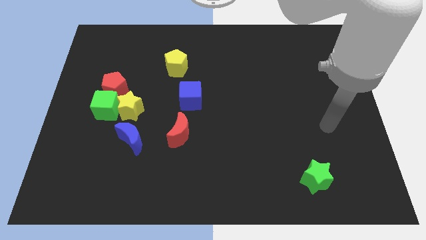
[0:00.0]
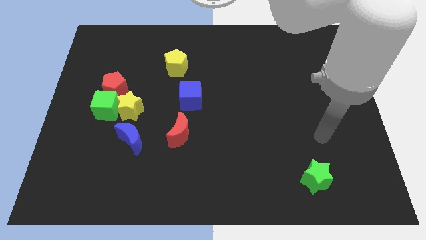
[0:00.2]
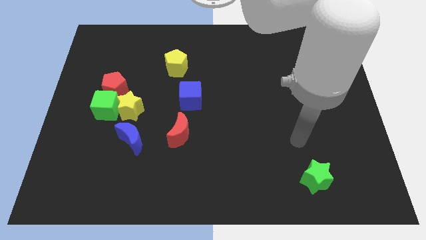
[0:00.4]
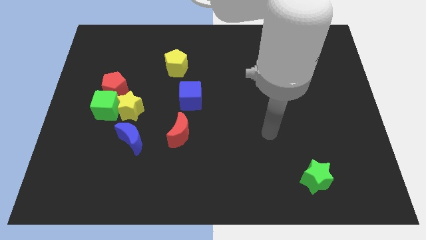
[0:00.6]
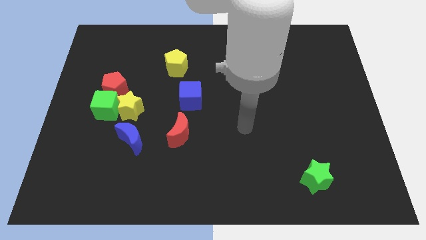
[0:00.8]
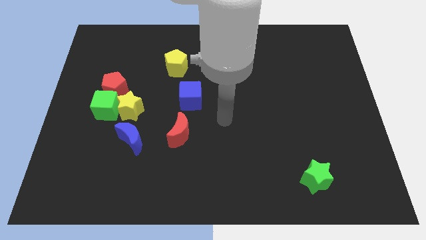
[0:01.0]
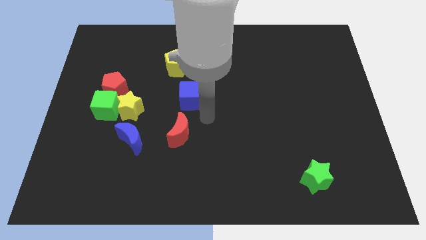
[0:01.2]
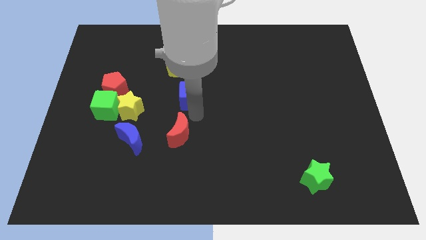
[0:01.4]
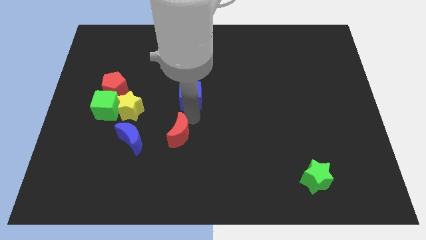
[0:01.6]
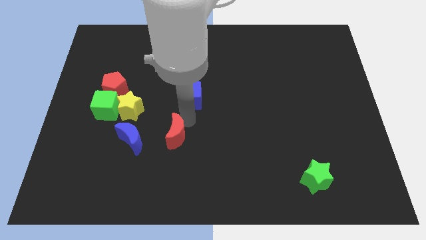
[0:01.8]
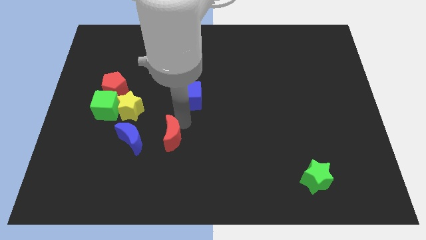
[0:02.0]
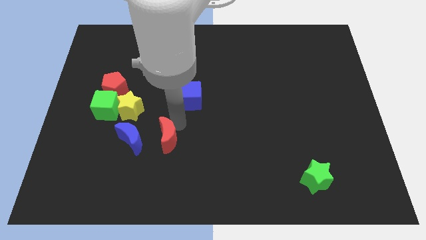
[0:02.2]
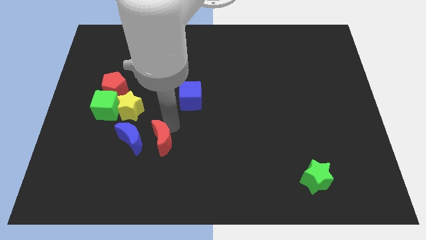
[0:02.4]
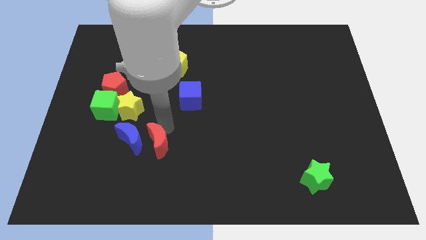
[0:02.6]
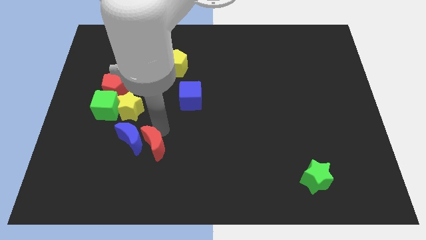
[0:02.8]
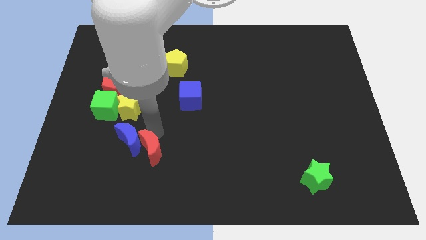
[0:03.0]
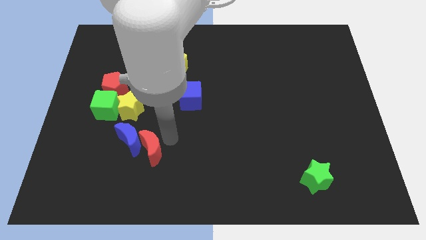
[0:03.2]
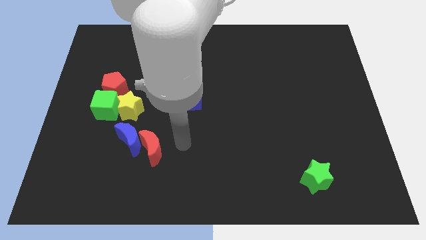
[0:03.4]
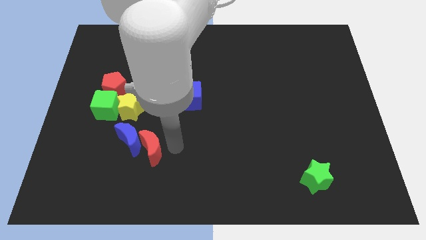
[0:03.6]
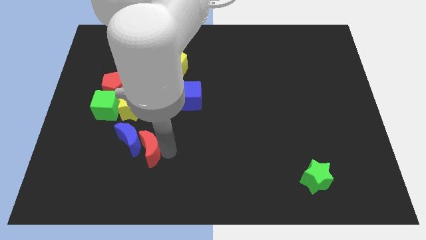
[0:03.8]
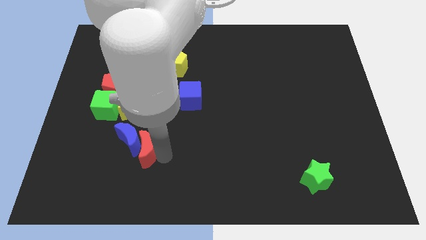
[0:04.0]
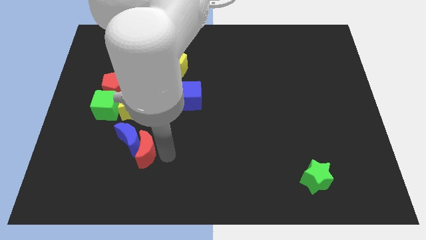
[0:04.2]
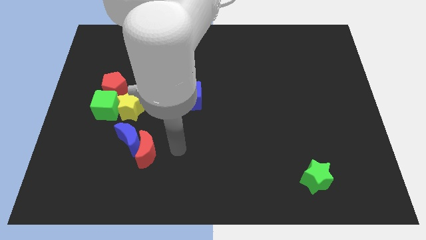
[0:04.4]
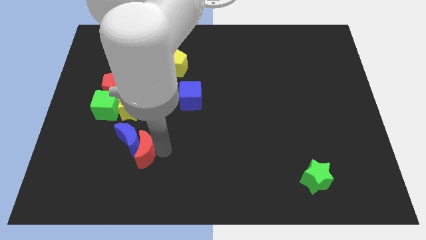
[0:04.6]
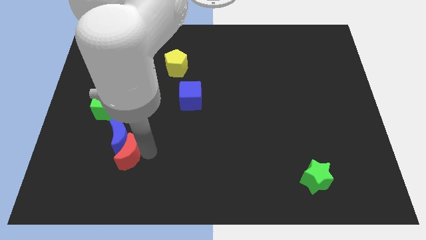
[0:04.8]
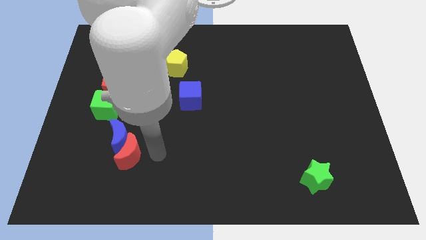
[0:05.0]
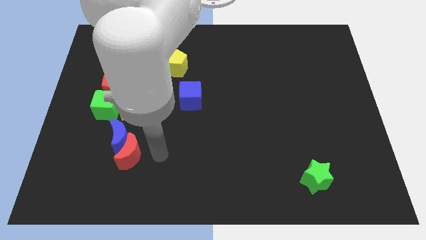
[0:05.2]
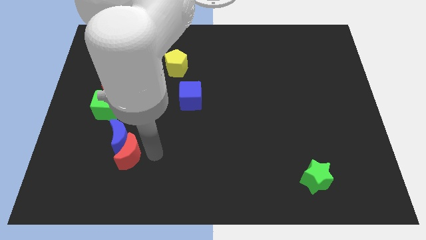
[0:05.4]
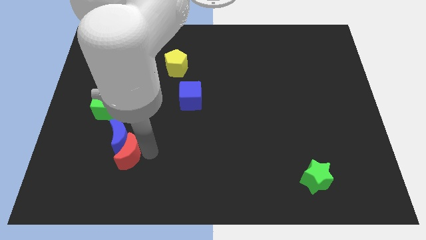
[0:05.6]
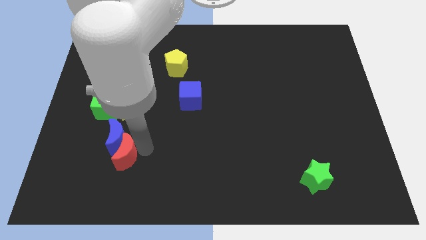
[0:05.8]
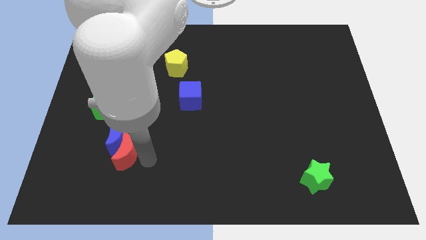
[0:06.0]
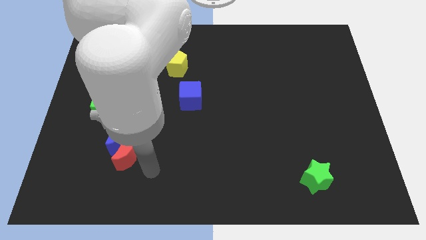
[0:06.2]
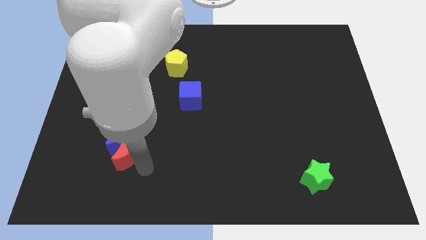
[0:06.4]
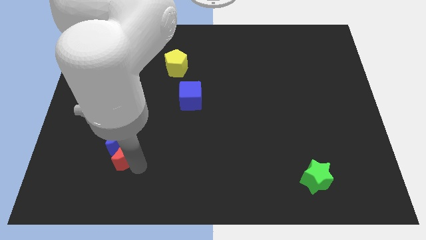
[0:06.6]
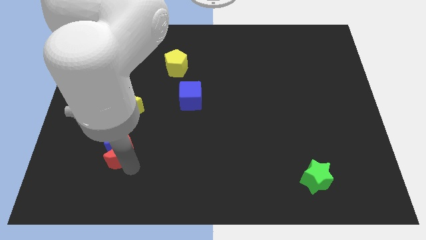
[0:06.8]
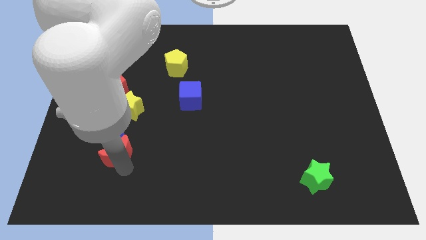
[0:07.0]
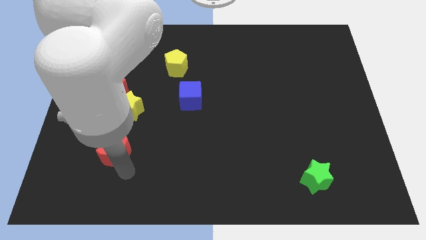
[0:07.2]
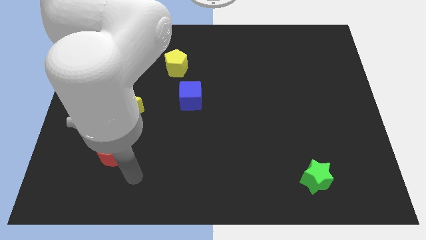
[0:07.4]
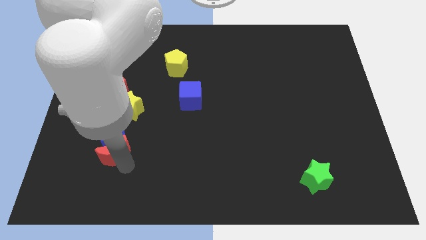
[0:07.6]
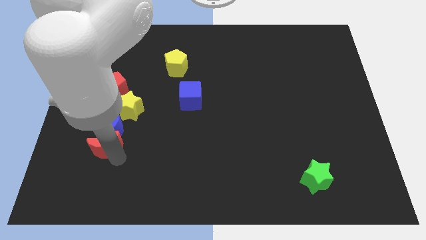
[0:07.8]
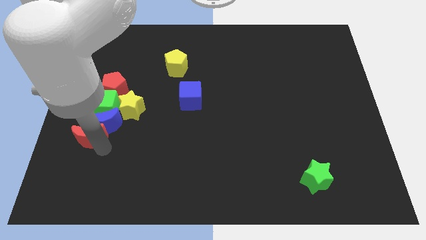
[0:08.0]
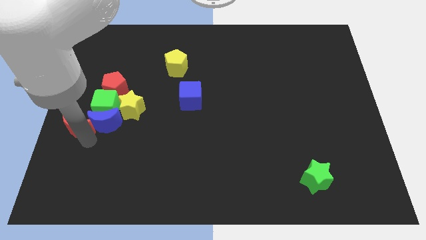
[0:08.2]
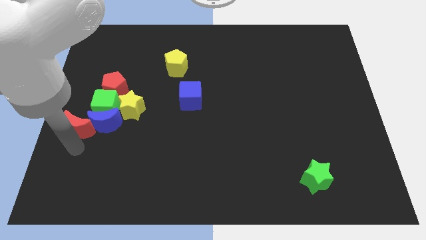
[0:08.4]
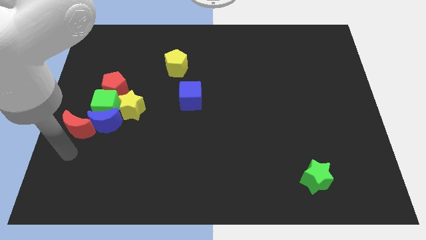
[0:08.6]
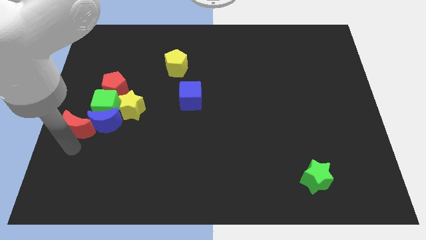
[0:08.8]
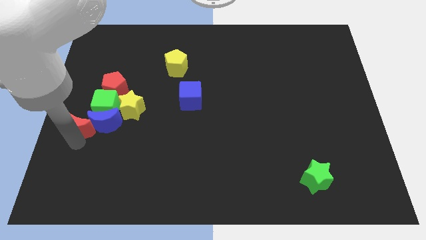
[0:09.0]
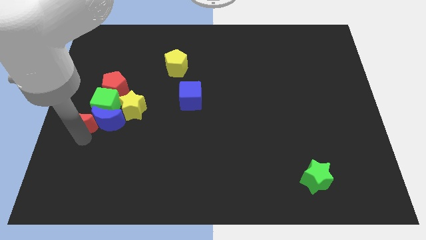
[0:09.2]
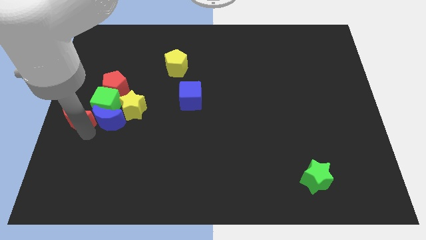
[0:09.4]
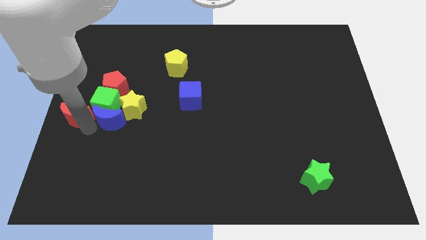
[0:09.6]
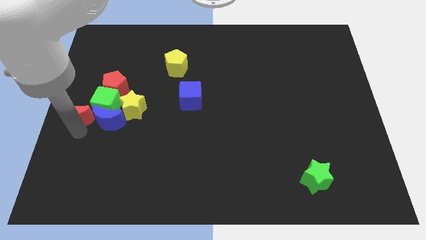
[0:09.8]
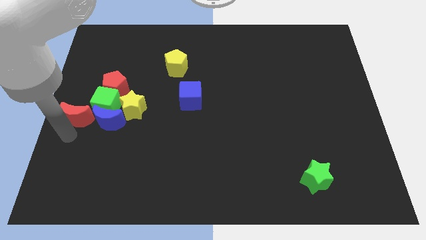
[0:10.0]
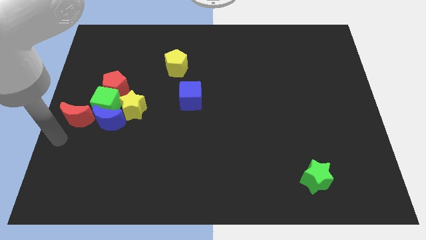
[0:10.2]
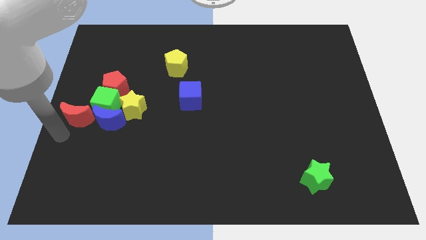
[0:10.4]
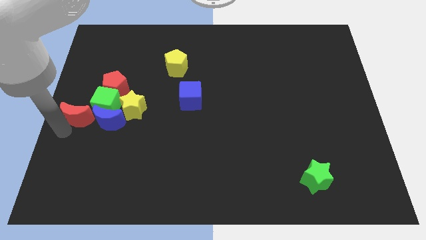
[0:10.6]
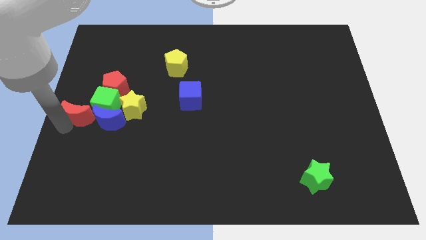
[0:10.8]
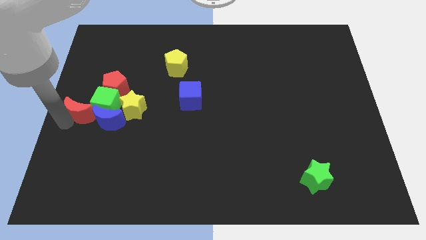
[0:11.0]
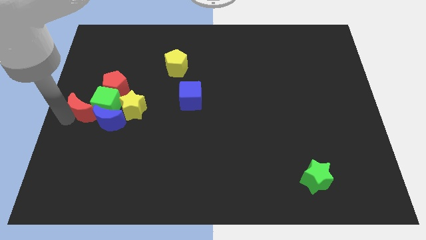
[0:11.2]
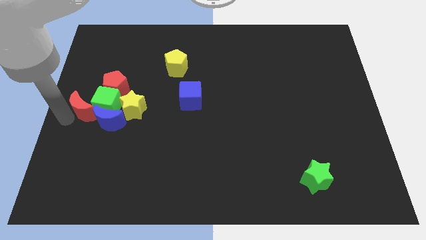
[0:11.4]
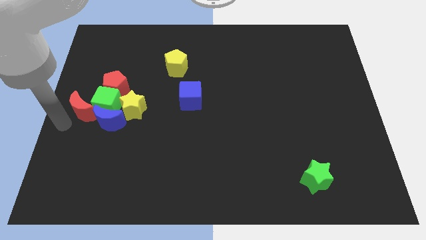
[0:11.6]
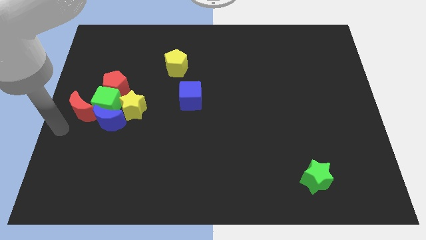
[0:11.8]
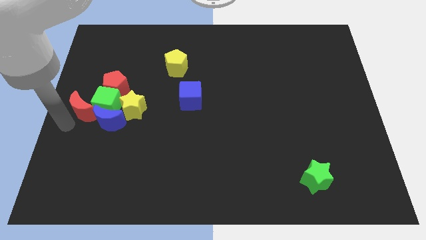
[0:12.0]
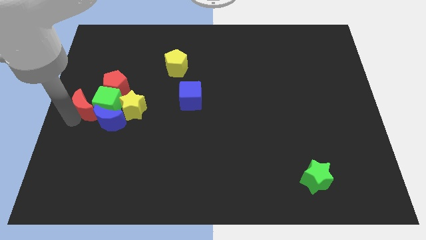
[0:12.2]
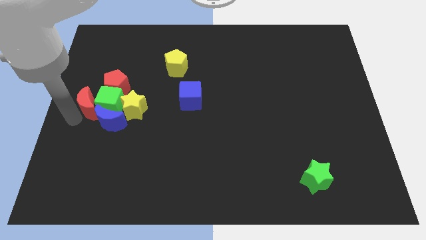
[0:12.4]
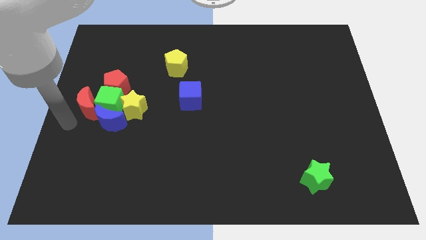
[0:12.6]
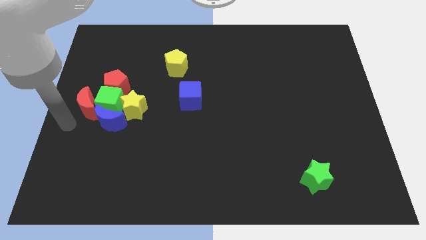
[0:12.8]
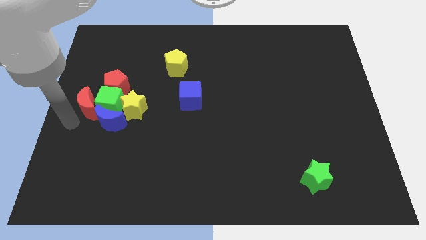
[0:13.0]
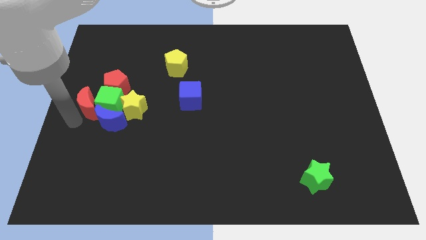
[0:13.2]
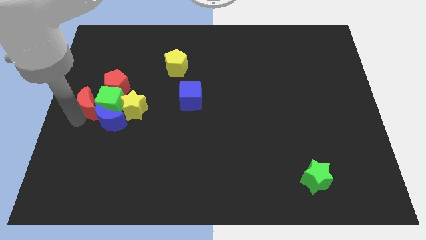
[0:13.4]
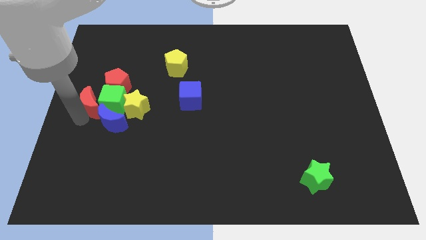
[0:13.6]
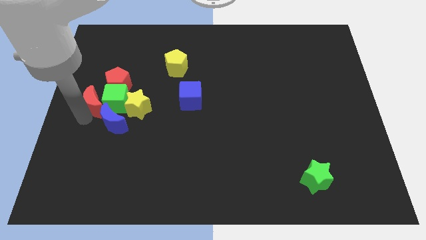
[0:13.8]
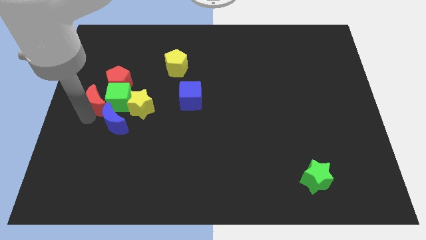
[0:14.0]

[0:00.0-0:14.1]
slide the red moon diagonally up and to the left of the blue moon

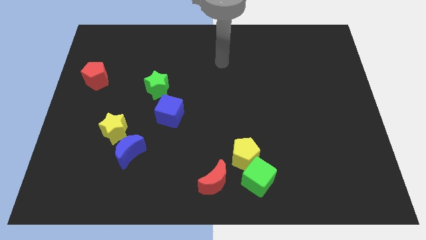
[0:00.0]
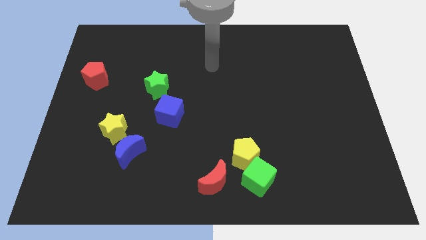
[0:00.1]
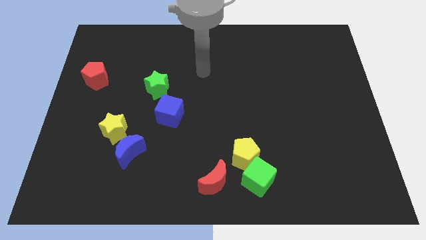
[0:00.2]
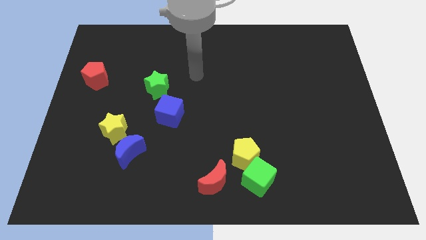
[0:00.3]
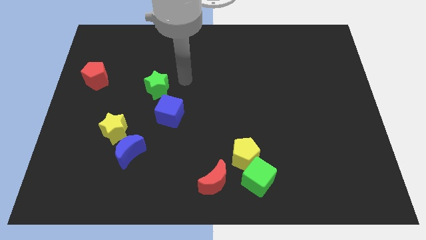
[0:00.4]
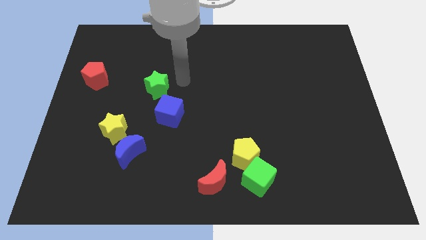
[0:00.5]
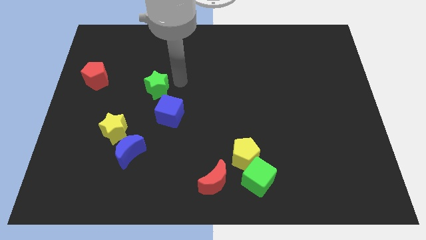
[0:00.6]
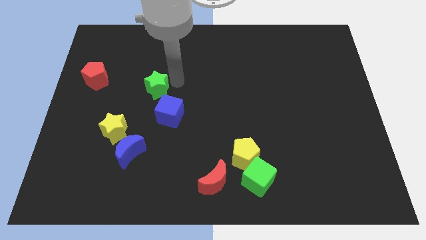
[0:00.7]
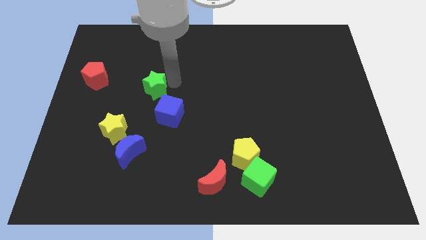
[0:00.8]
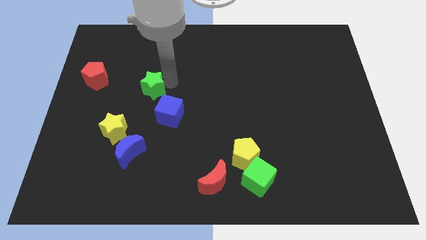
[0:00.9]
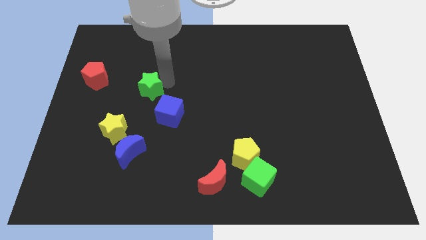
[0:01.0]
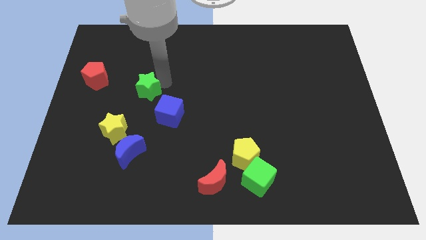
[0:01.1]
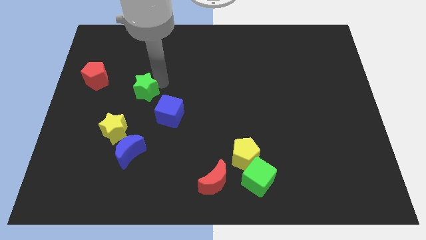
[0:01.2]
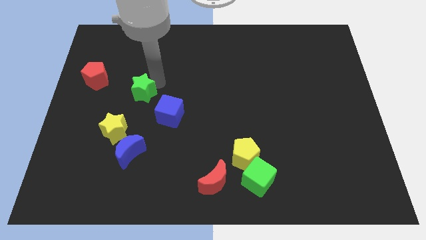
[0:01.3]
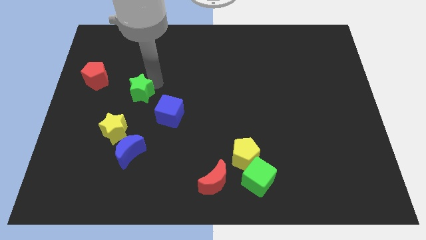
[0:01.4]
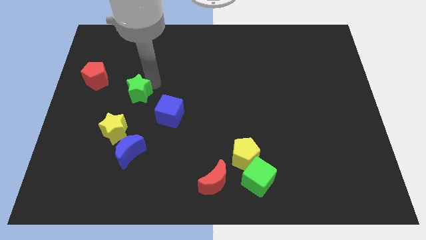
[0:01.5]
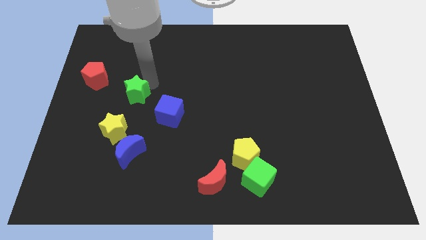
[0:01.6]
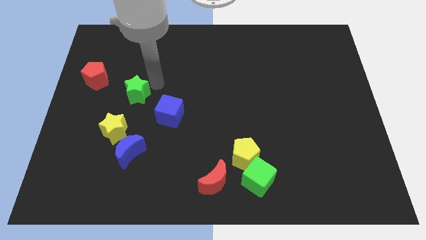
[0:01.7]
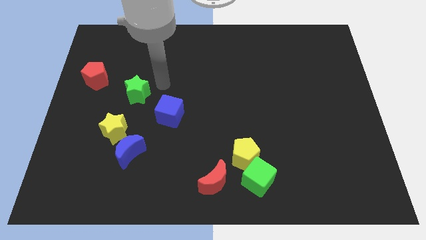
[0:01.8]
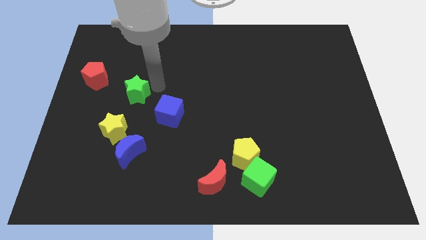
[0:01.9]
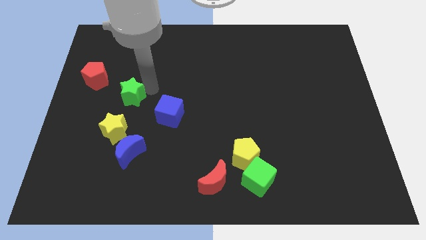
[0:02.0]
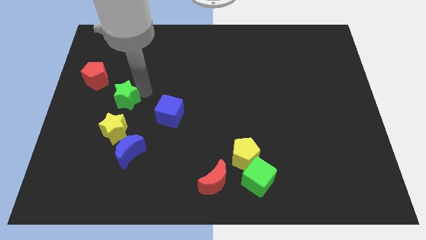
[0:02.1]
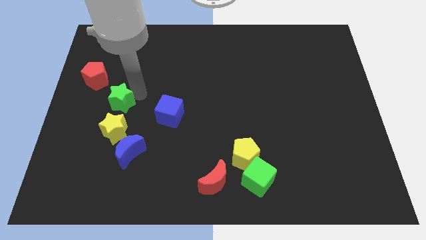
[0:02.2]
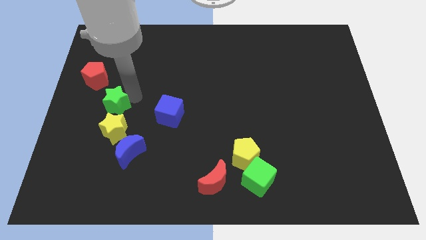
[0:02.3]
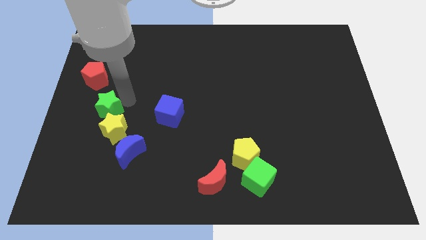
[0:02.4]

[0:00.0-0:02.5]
slide the green star below the red pentagon
